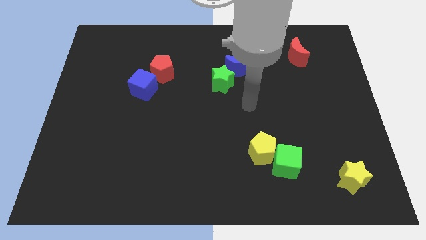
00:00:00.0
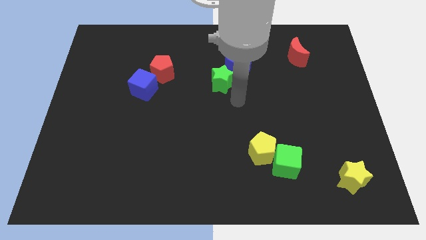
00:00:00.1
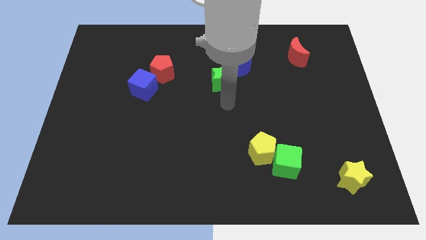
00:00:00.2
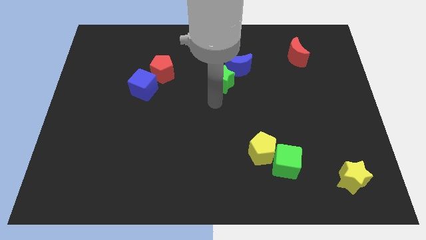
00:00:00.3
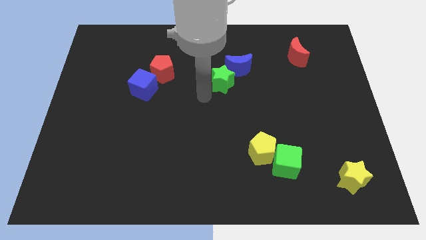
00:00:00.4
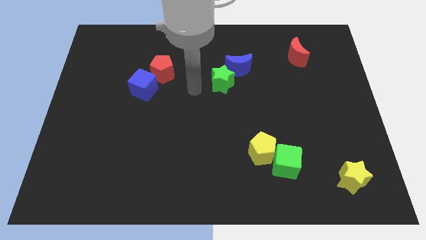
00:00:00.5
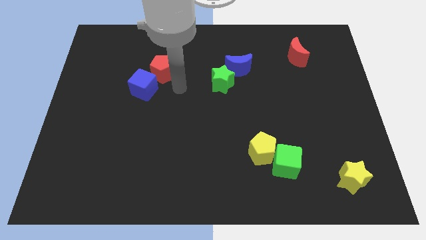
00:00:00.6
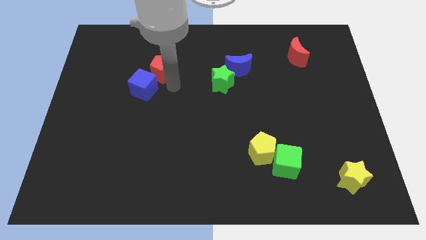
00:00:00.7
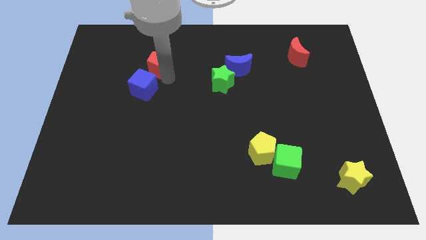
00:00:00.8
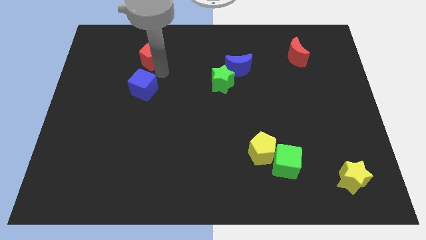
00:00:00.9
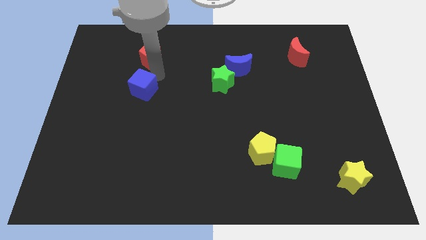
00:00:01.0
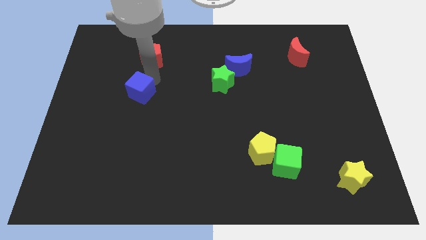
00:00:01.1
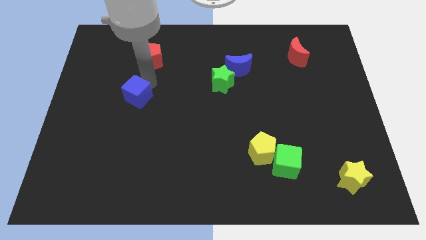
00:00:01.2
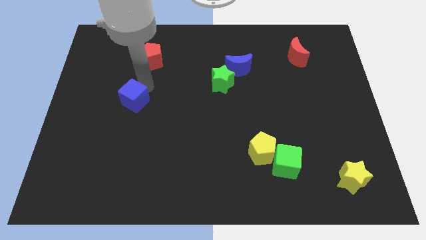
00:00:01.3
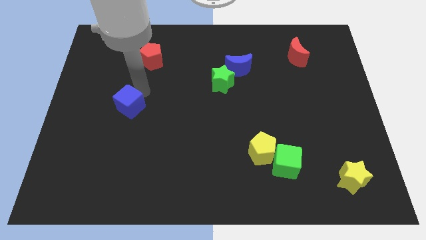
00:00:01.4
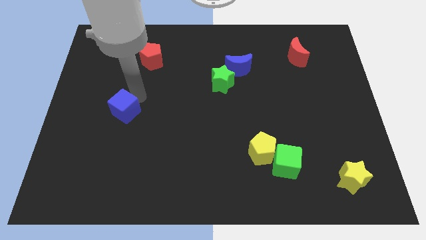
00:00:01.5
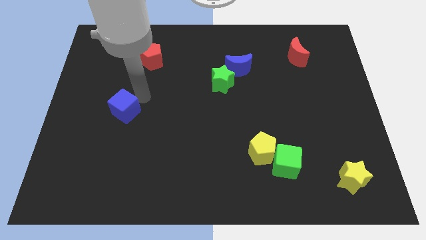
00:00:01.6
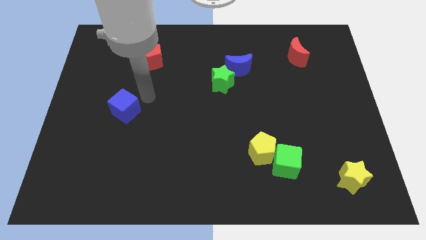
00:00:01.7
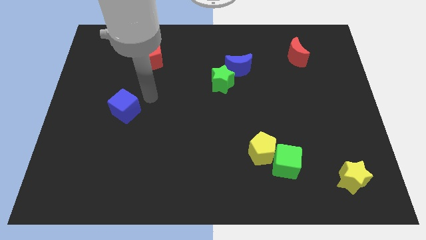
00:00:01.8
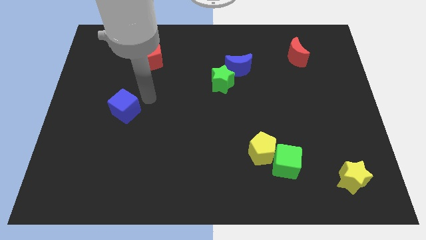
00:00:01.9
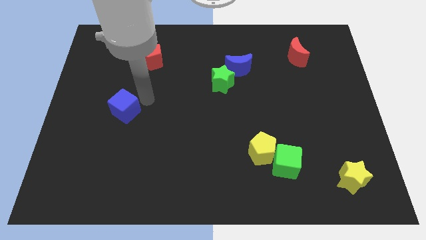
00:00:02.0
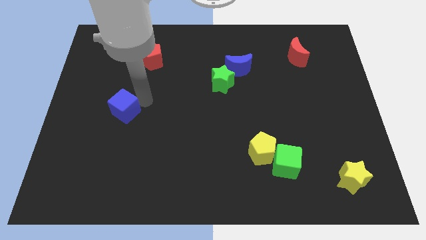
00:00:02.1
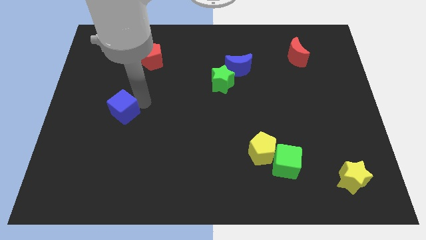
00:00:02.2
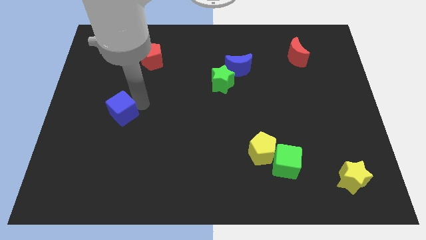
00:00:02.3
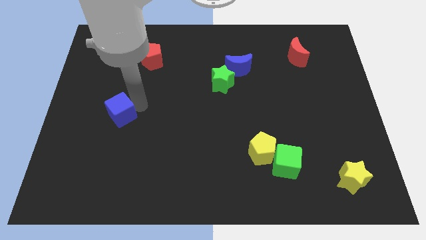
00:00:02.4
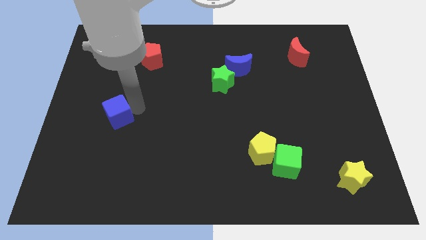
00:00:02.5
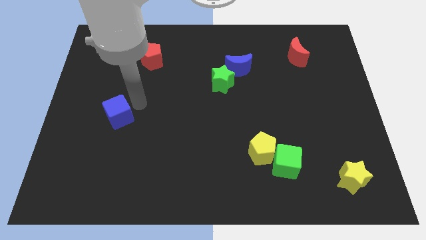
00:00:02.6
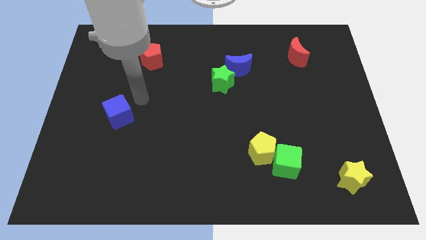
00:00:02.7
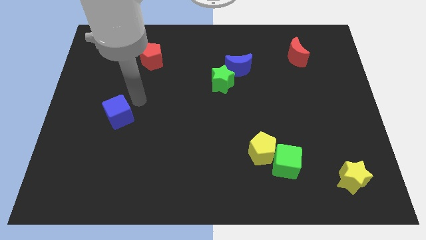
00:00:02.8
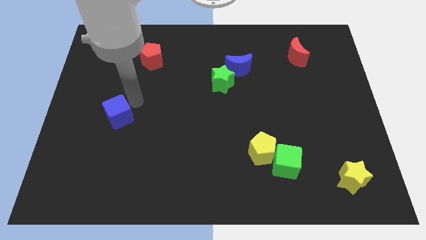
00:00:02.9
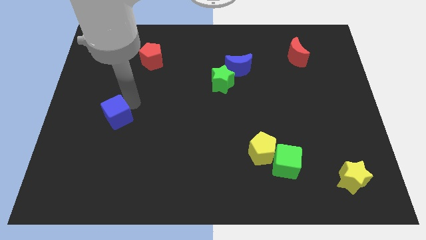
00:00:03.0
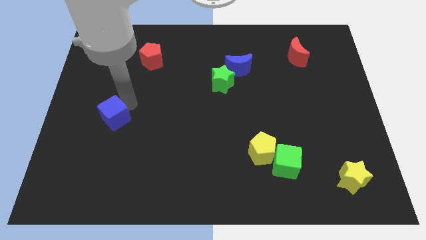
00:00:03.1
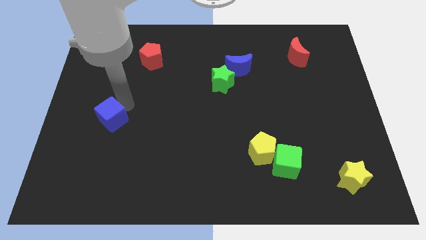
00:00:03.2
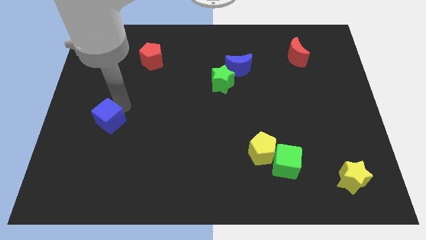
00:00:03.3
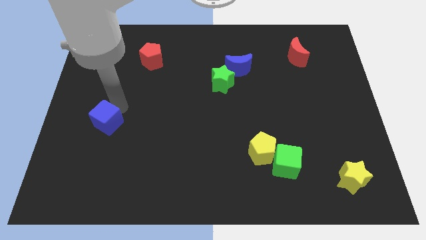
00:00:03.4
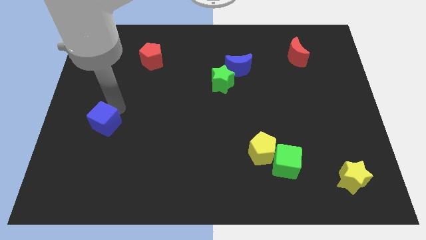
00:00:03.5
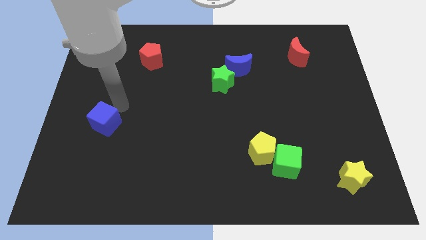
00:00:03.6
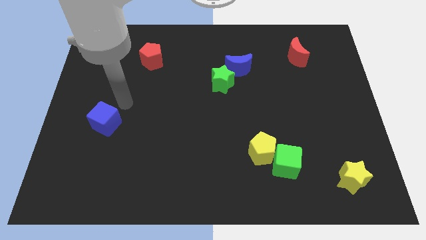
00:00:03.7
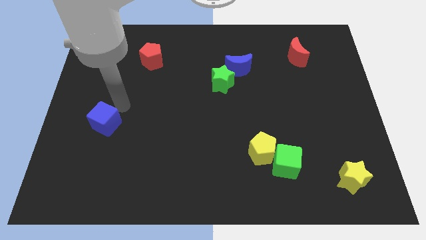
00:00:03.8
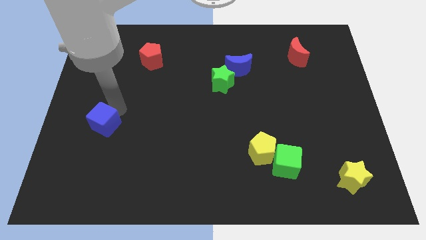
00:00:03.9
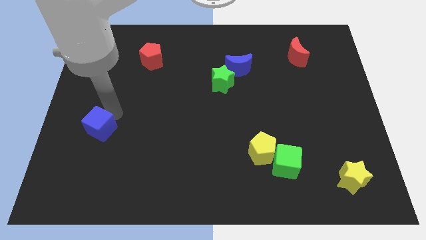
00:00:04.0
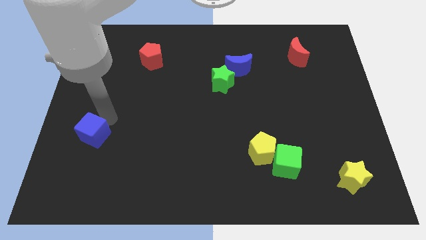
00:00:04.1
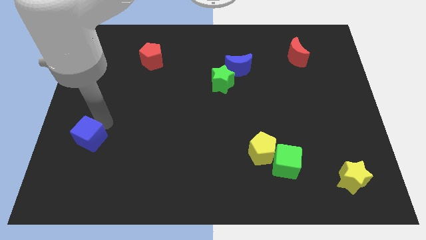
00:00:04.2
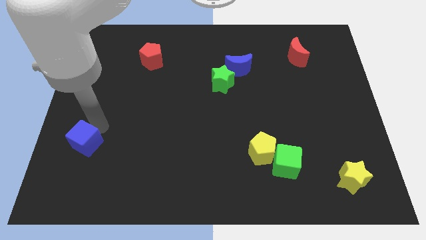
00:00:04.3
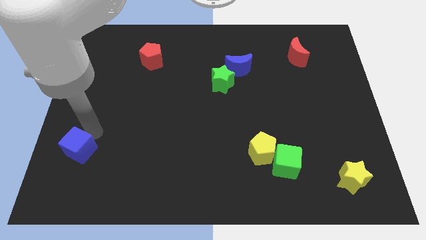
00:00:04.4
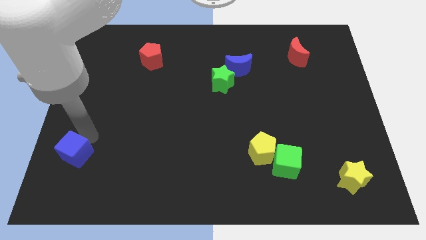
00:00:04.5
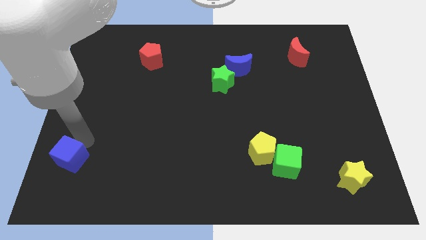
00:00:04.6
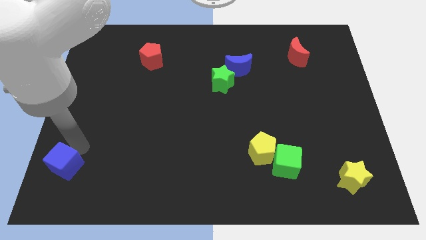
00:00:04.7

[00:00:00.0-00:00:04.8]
push the blue cube to the bottom left of the board

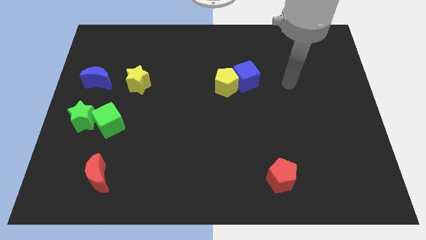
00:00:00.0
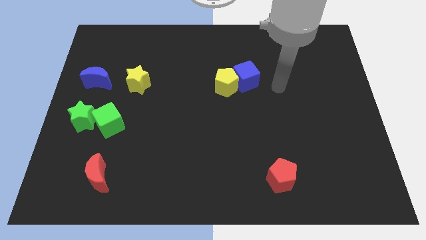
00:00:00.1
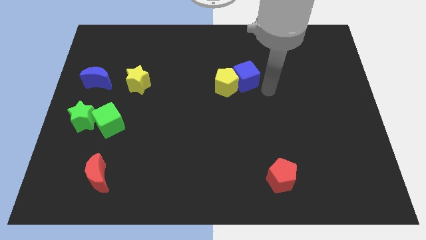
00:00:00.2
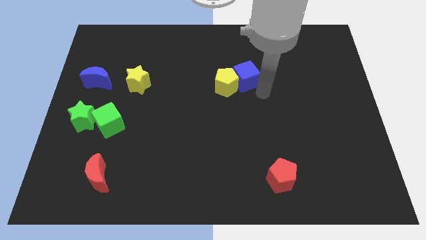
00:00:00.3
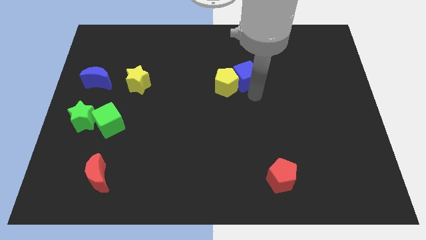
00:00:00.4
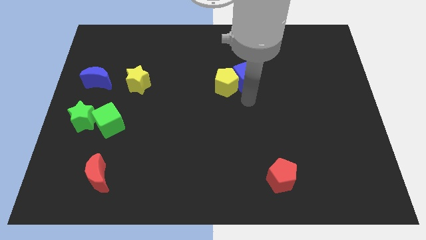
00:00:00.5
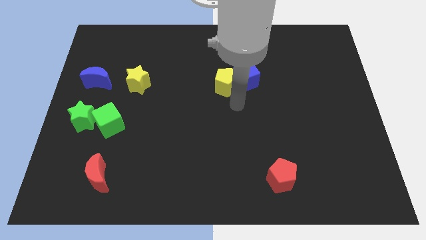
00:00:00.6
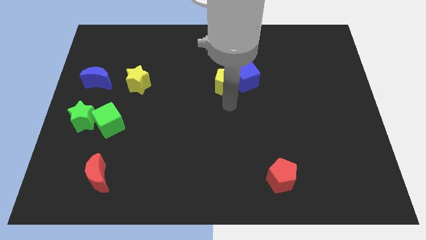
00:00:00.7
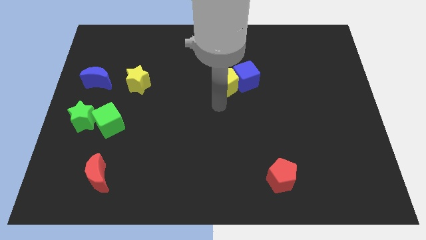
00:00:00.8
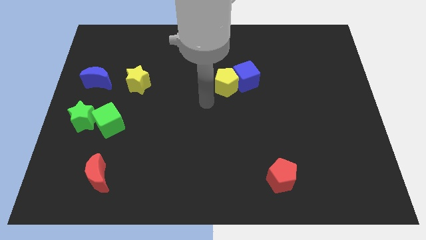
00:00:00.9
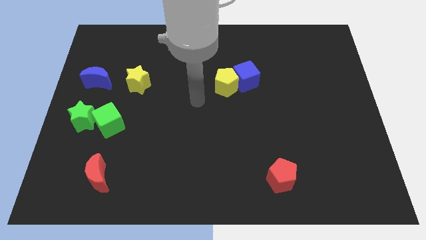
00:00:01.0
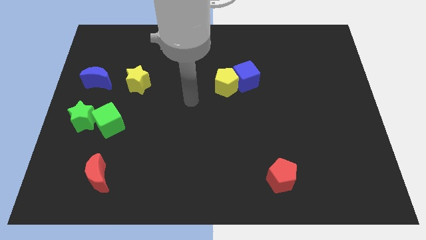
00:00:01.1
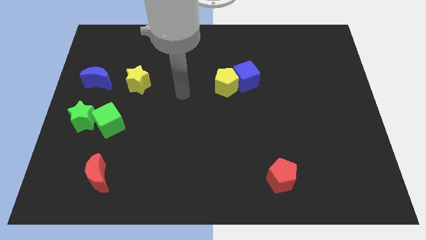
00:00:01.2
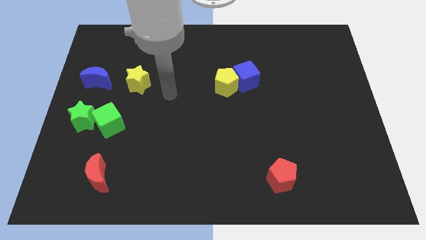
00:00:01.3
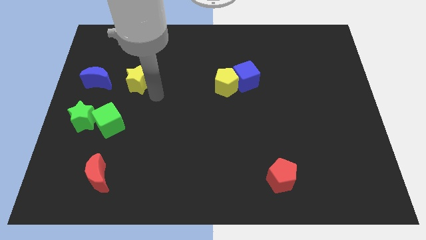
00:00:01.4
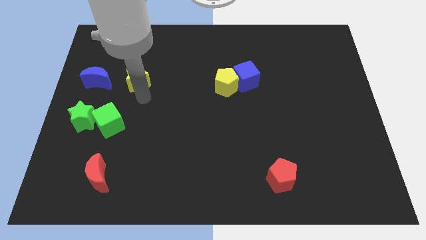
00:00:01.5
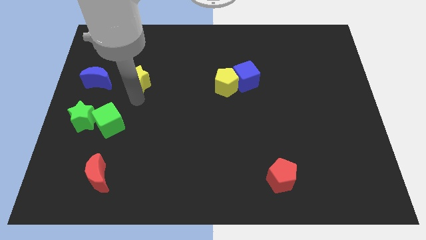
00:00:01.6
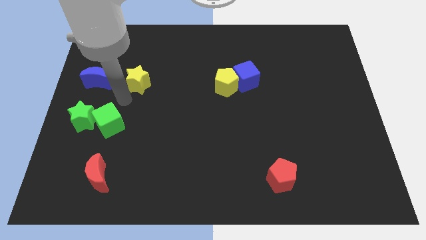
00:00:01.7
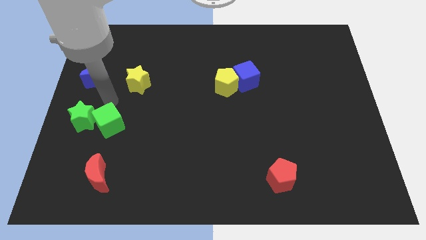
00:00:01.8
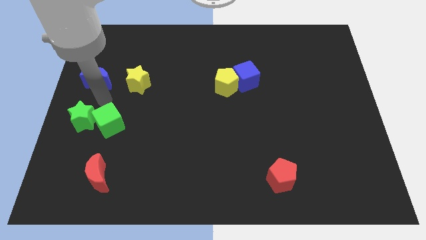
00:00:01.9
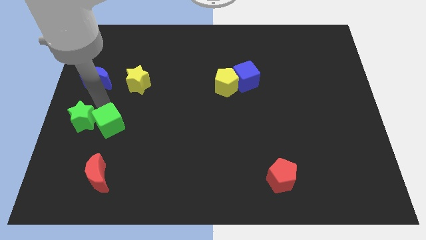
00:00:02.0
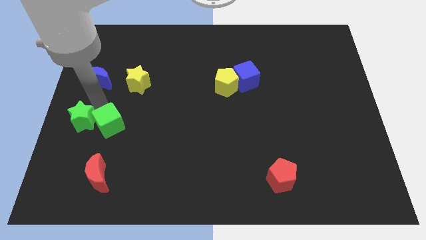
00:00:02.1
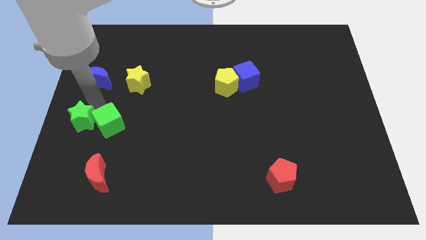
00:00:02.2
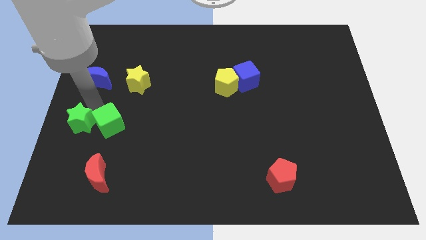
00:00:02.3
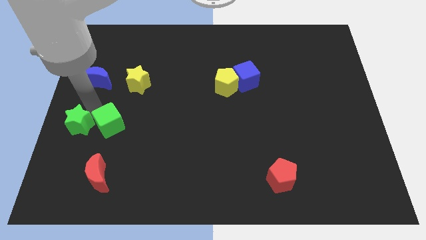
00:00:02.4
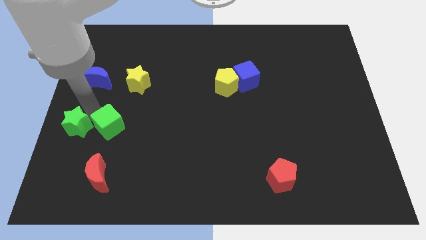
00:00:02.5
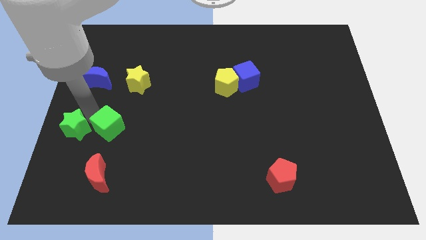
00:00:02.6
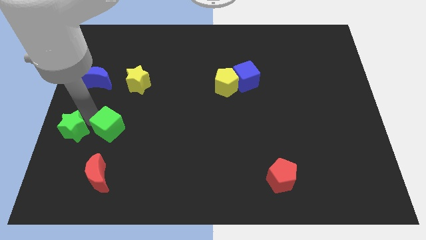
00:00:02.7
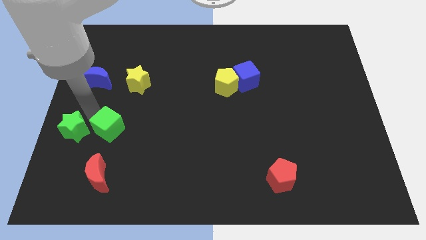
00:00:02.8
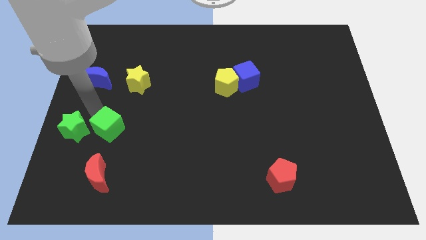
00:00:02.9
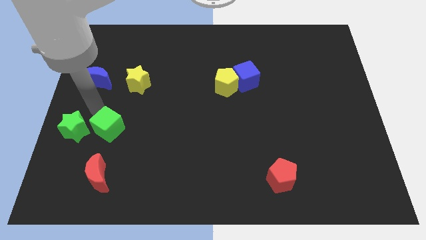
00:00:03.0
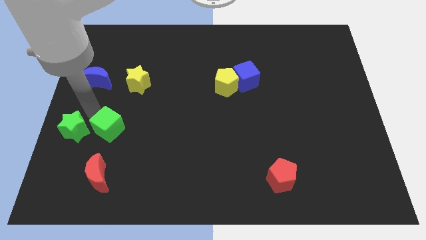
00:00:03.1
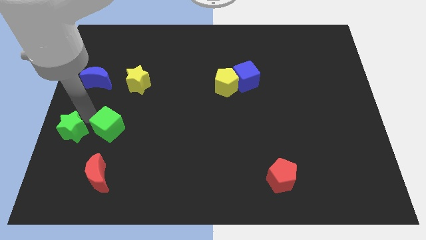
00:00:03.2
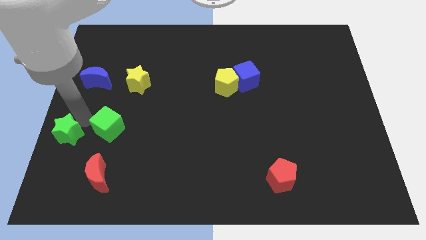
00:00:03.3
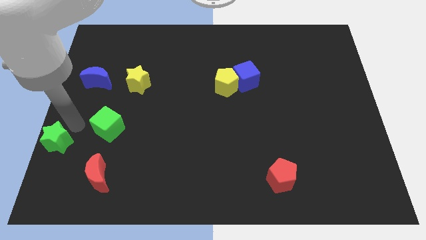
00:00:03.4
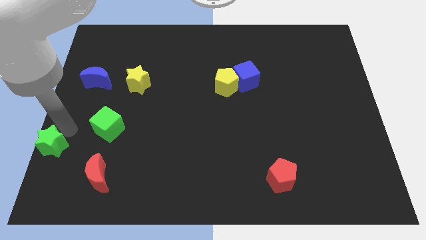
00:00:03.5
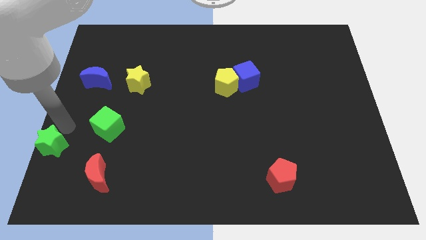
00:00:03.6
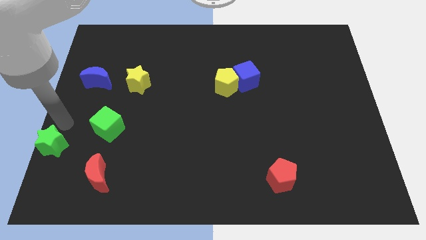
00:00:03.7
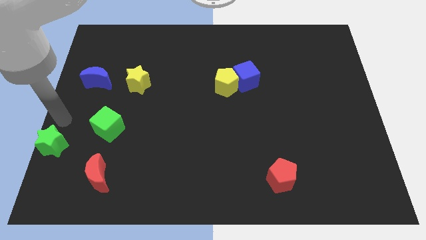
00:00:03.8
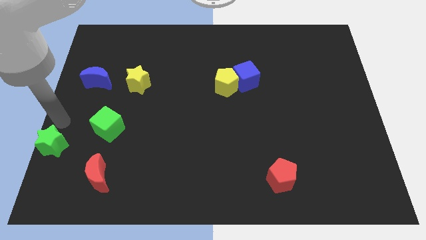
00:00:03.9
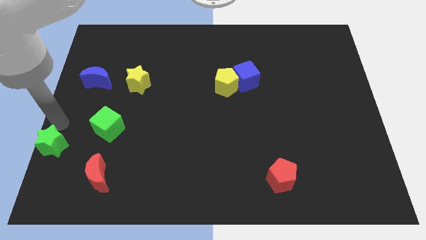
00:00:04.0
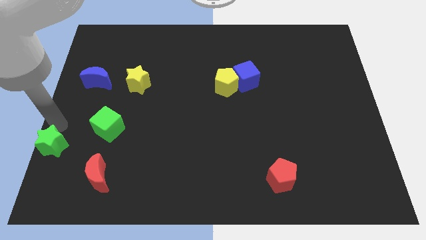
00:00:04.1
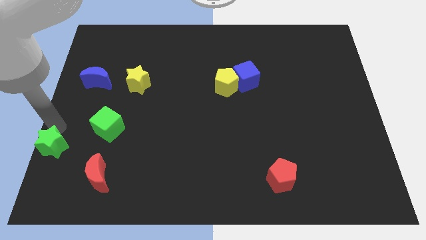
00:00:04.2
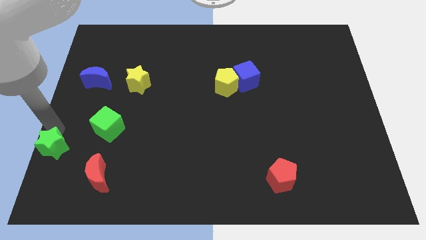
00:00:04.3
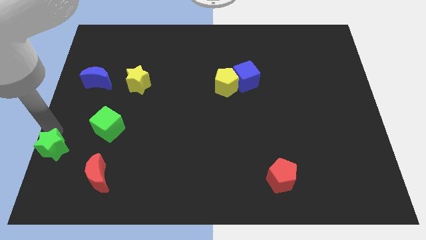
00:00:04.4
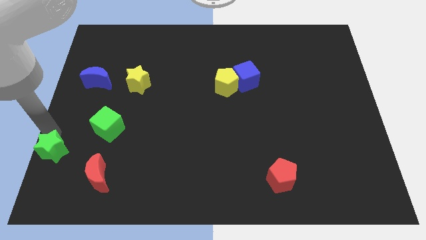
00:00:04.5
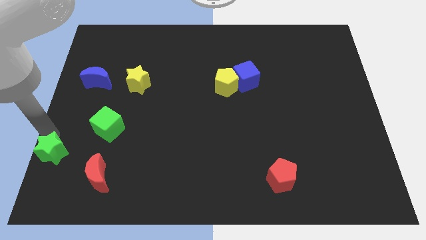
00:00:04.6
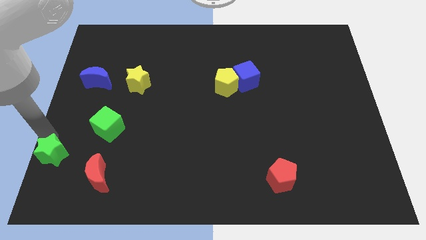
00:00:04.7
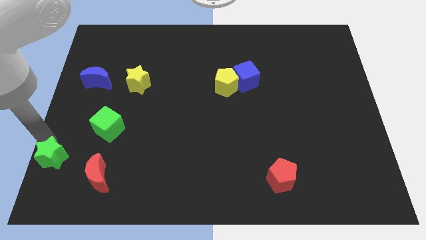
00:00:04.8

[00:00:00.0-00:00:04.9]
move the green star to the bottom left
